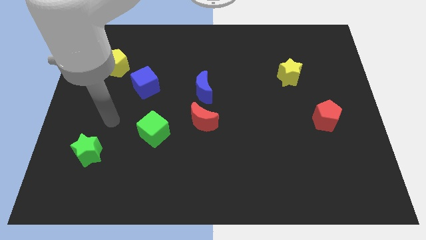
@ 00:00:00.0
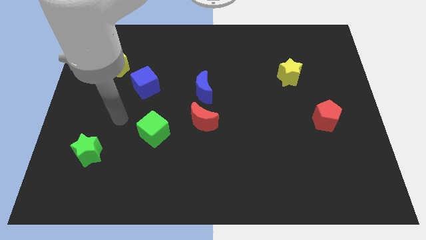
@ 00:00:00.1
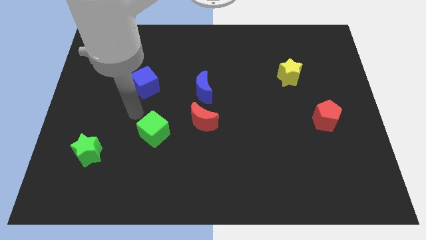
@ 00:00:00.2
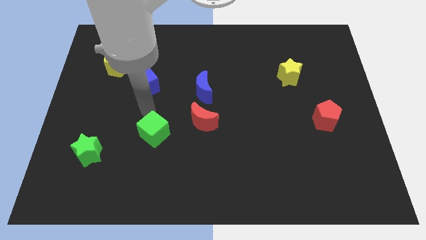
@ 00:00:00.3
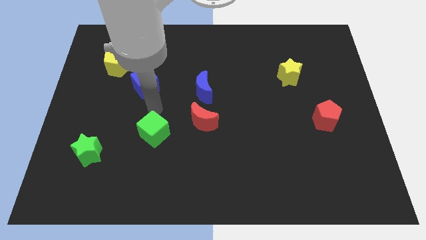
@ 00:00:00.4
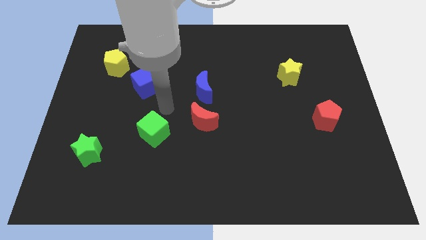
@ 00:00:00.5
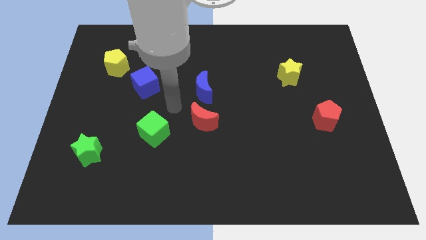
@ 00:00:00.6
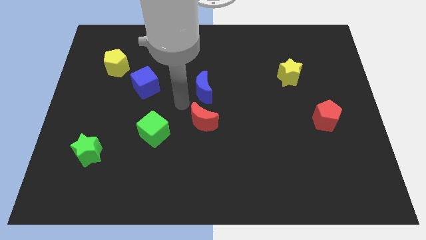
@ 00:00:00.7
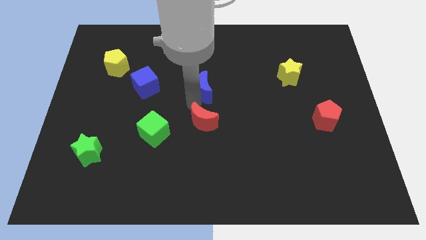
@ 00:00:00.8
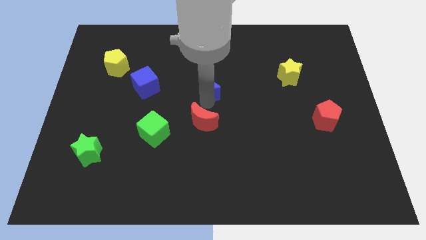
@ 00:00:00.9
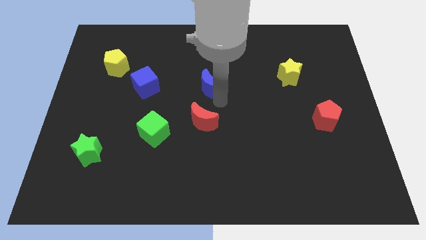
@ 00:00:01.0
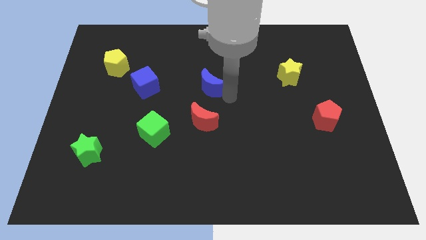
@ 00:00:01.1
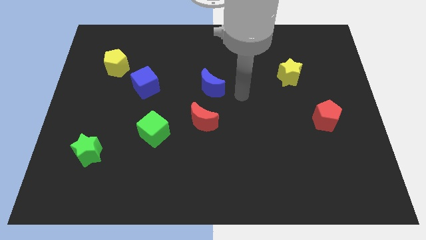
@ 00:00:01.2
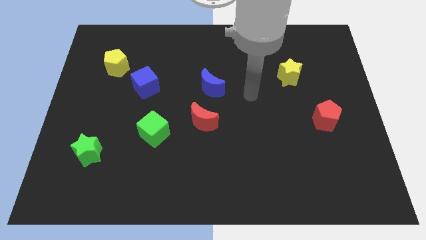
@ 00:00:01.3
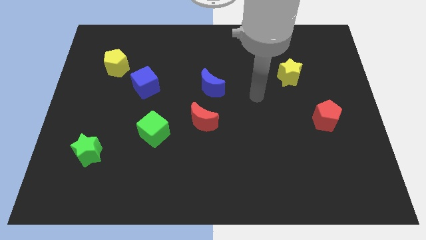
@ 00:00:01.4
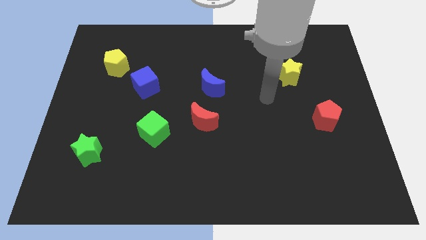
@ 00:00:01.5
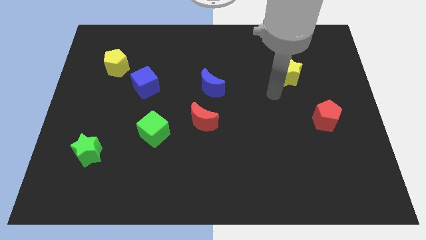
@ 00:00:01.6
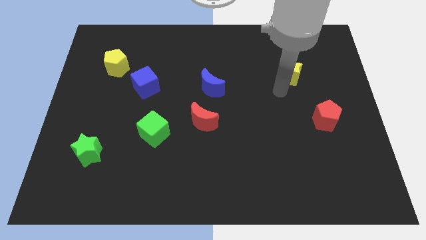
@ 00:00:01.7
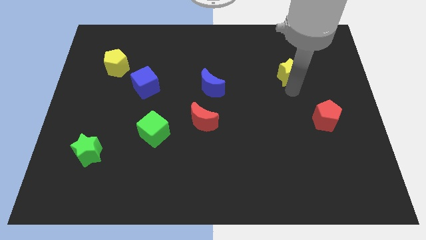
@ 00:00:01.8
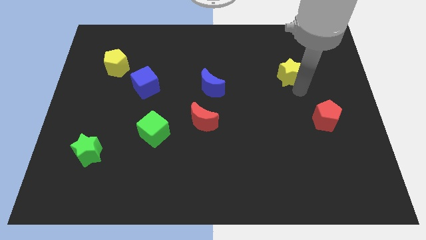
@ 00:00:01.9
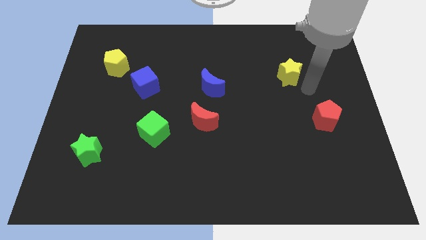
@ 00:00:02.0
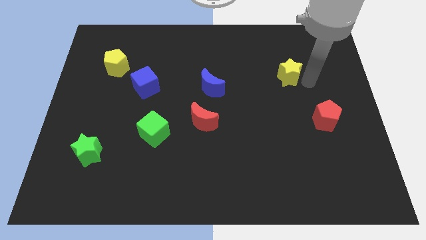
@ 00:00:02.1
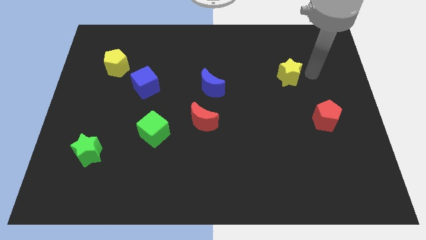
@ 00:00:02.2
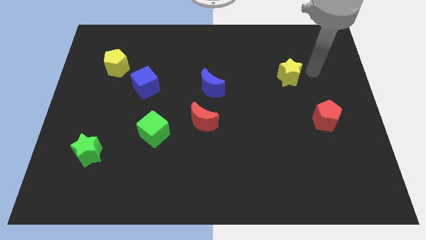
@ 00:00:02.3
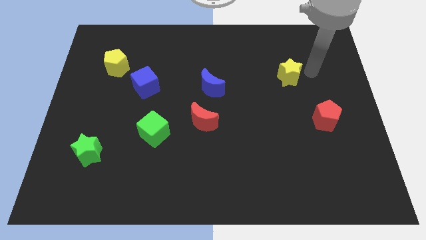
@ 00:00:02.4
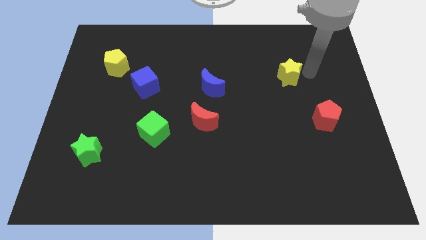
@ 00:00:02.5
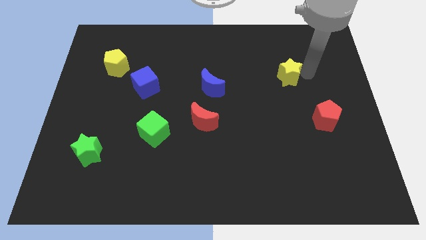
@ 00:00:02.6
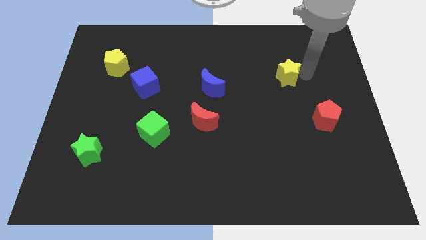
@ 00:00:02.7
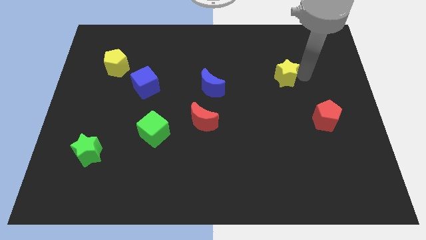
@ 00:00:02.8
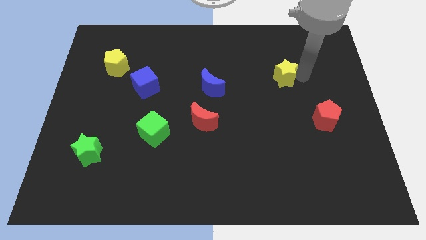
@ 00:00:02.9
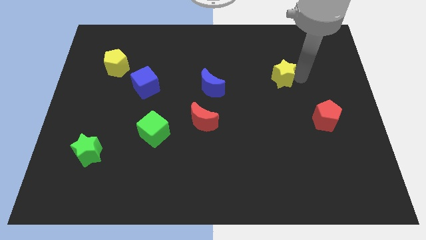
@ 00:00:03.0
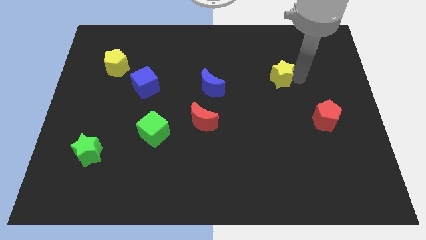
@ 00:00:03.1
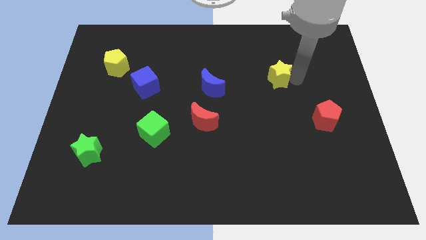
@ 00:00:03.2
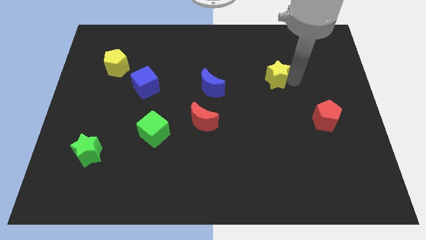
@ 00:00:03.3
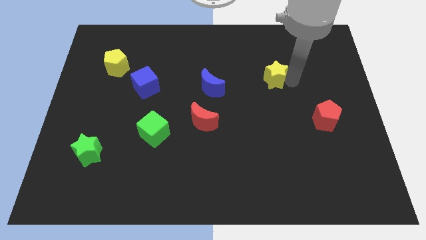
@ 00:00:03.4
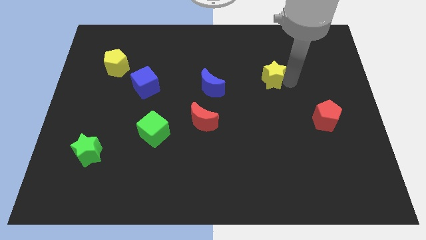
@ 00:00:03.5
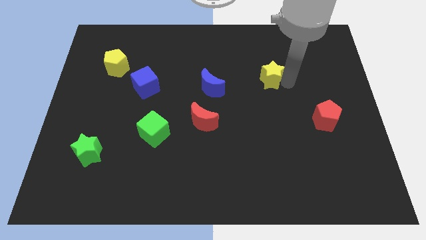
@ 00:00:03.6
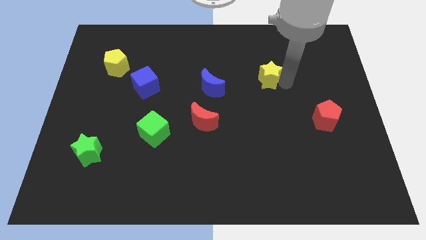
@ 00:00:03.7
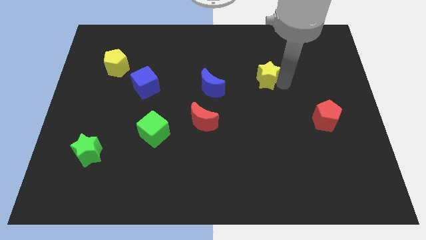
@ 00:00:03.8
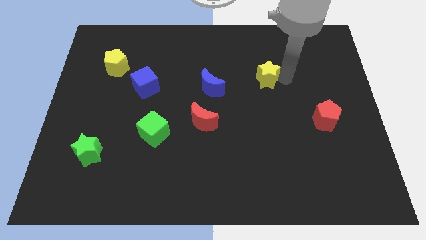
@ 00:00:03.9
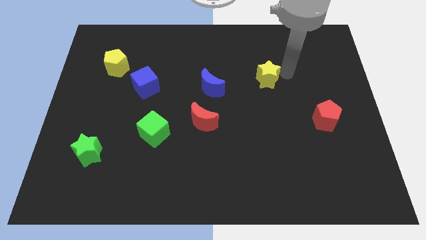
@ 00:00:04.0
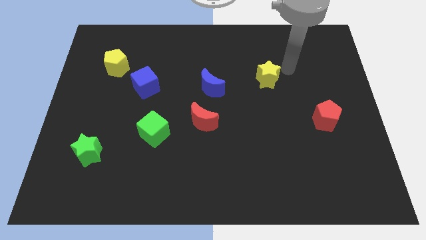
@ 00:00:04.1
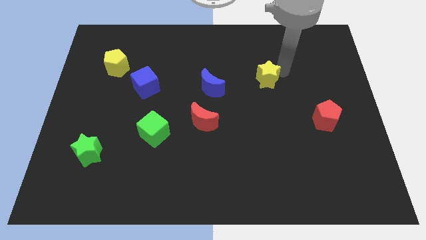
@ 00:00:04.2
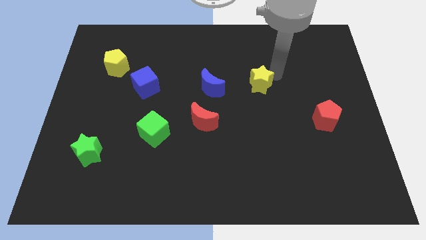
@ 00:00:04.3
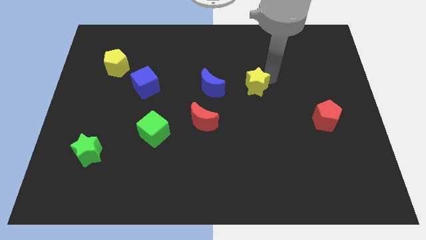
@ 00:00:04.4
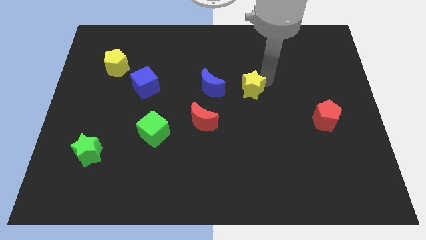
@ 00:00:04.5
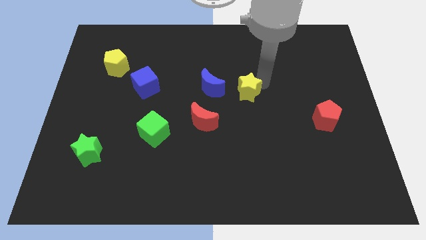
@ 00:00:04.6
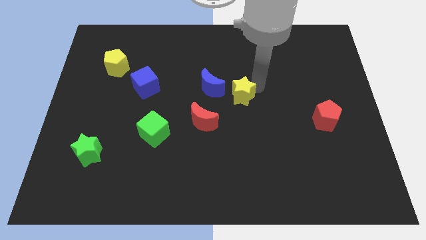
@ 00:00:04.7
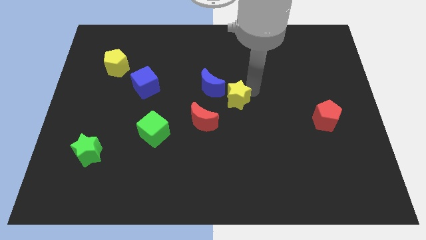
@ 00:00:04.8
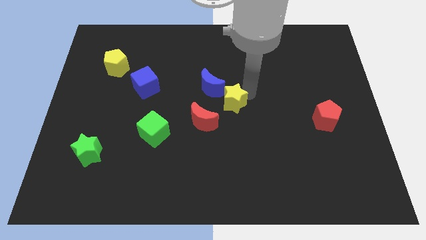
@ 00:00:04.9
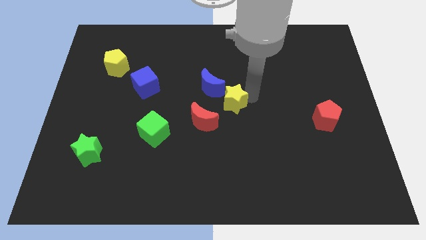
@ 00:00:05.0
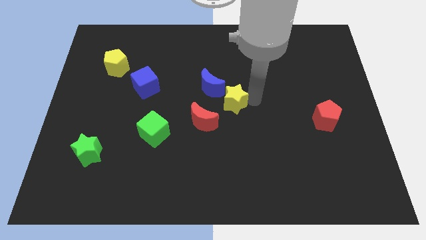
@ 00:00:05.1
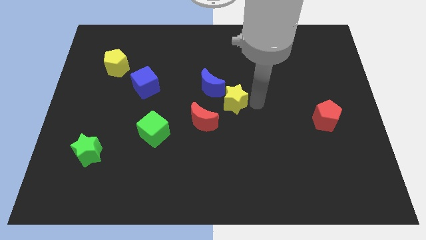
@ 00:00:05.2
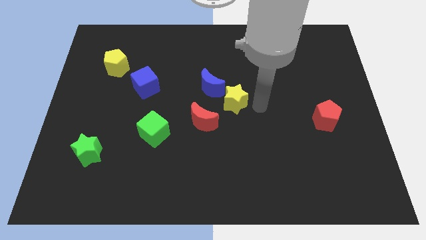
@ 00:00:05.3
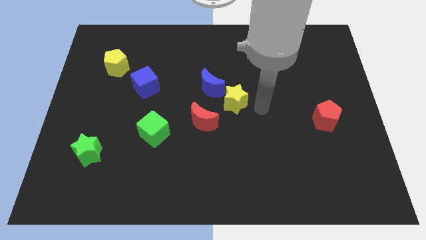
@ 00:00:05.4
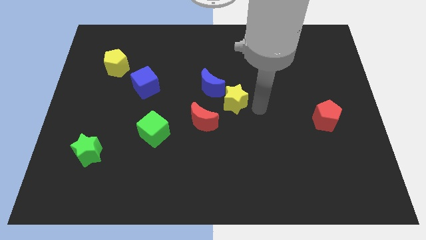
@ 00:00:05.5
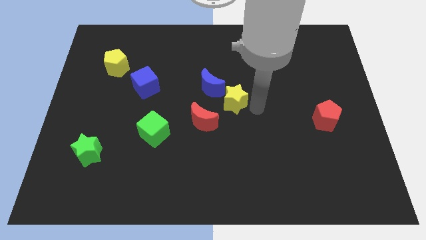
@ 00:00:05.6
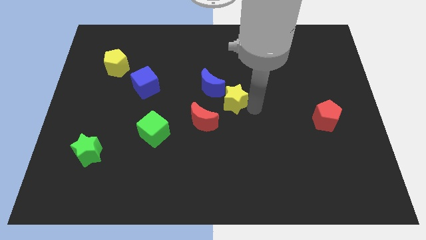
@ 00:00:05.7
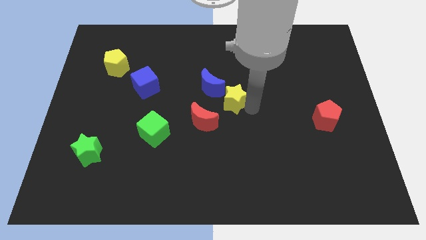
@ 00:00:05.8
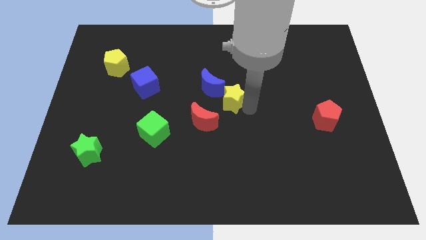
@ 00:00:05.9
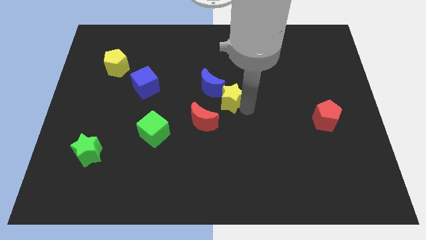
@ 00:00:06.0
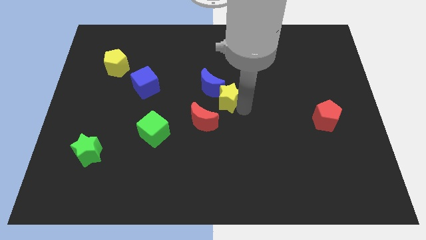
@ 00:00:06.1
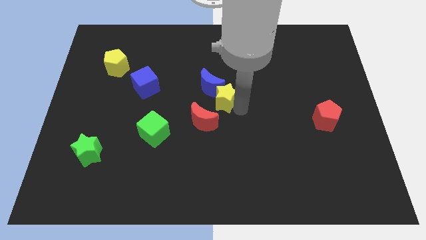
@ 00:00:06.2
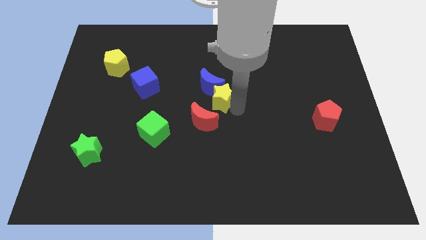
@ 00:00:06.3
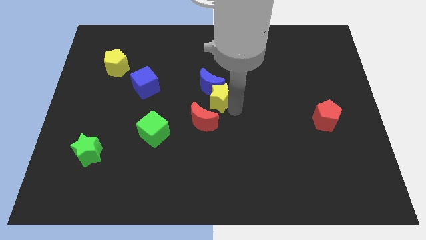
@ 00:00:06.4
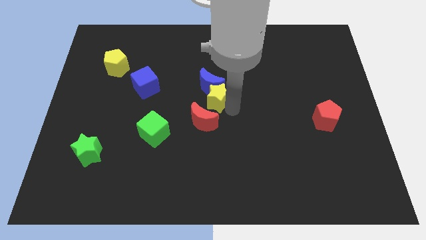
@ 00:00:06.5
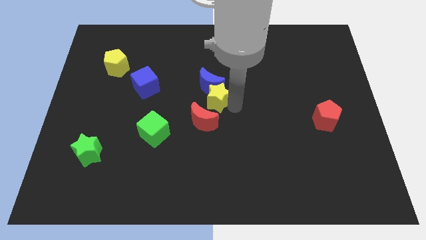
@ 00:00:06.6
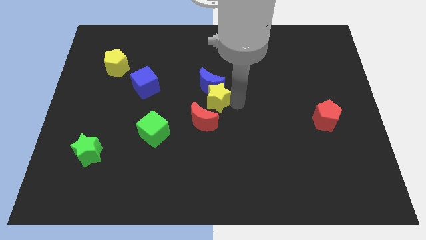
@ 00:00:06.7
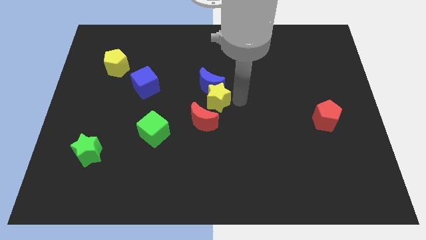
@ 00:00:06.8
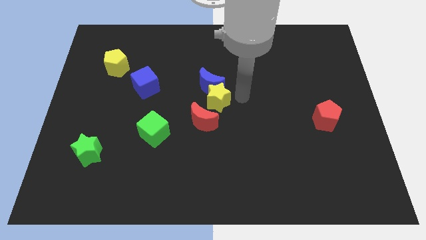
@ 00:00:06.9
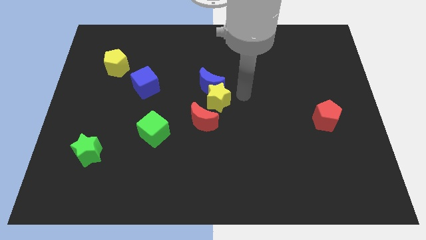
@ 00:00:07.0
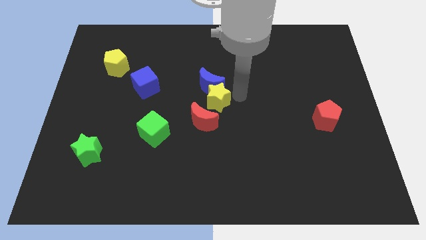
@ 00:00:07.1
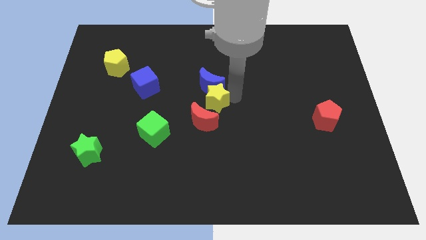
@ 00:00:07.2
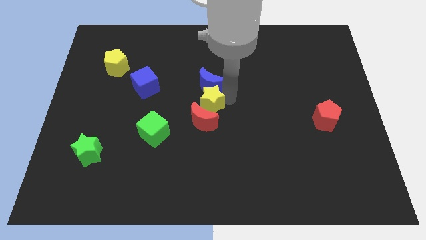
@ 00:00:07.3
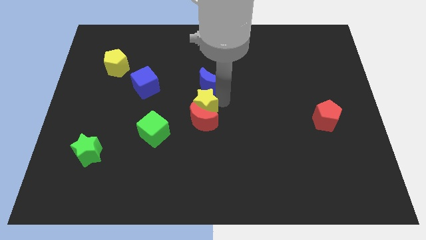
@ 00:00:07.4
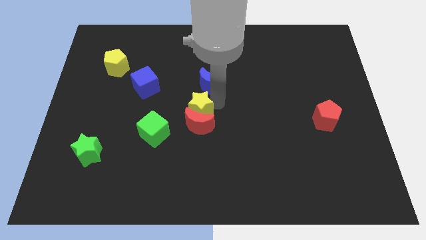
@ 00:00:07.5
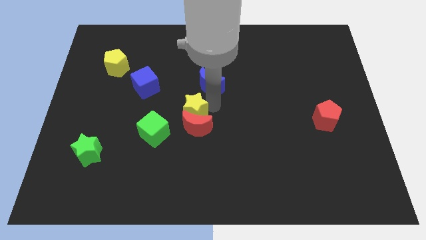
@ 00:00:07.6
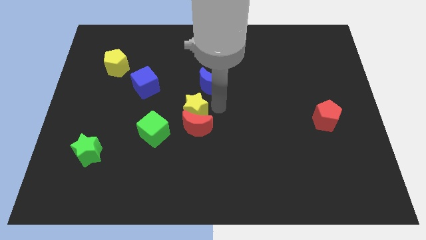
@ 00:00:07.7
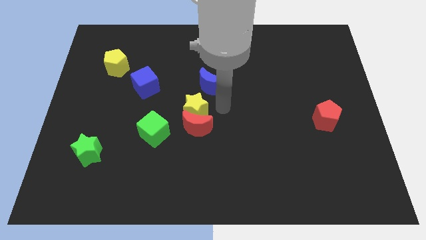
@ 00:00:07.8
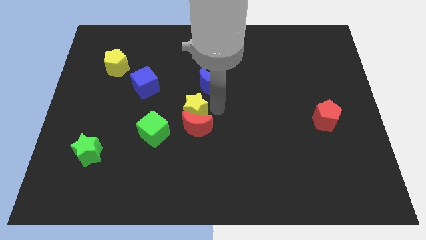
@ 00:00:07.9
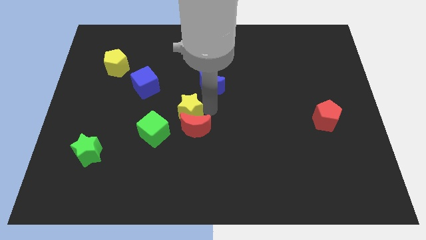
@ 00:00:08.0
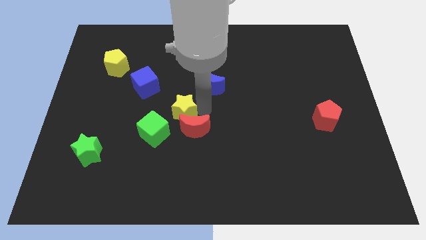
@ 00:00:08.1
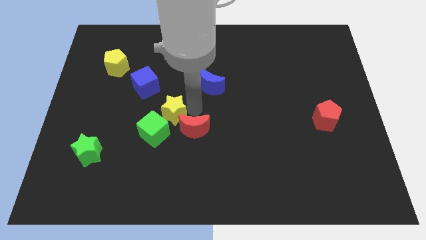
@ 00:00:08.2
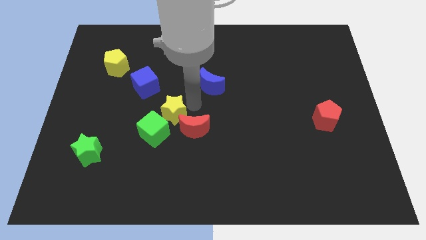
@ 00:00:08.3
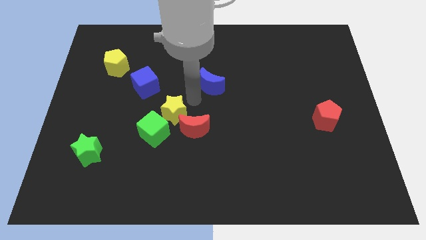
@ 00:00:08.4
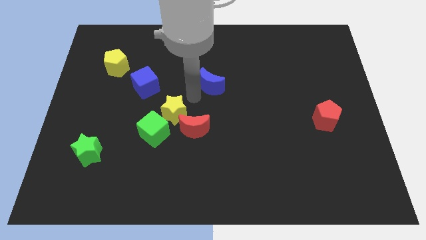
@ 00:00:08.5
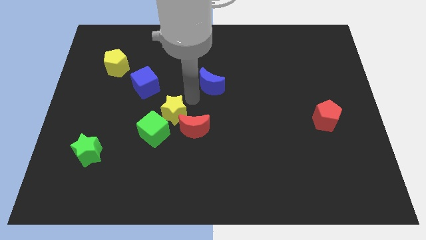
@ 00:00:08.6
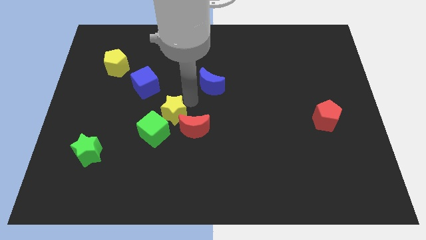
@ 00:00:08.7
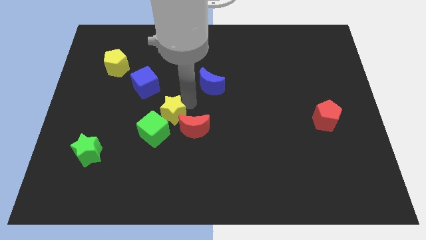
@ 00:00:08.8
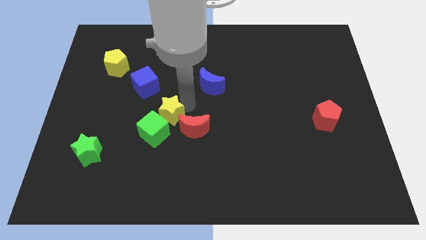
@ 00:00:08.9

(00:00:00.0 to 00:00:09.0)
slide the yellow star to the green cube
